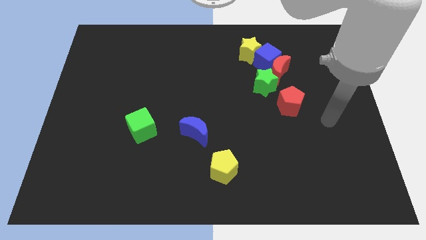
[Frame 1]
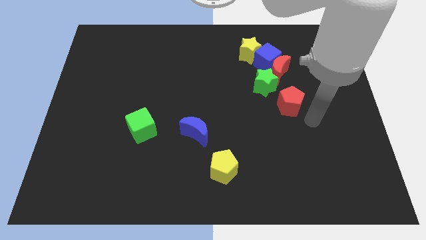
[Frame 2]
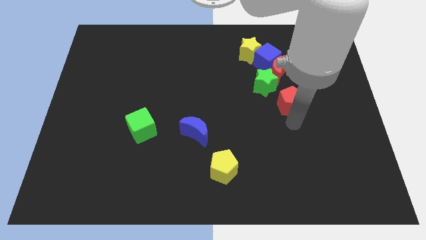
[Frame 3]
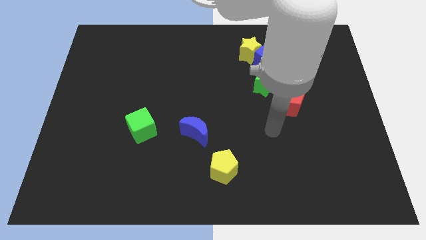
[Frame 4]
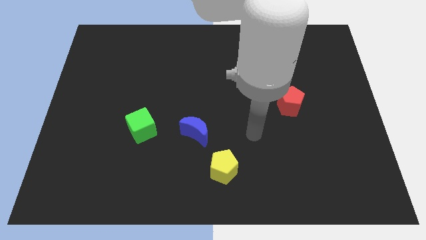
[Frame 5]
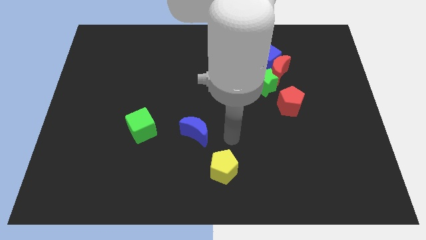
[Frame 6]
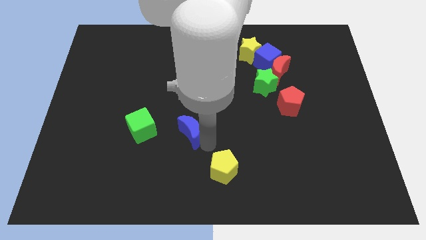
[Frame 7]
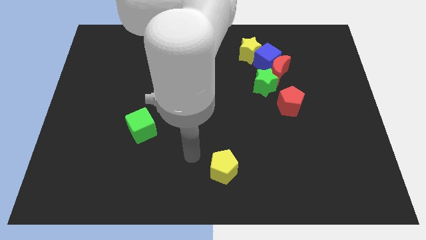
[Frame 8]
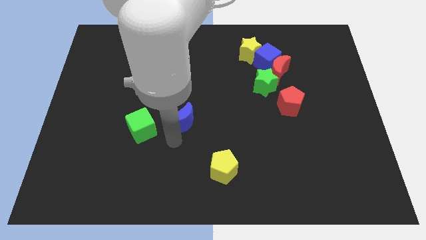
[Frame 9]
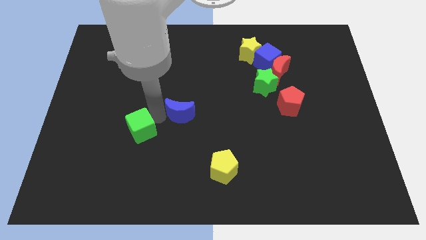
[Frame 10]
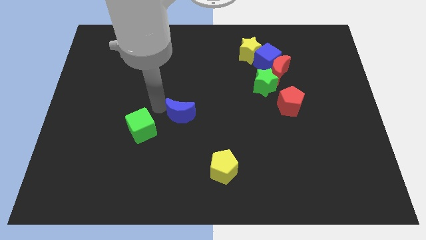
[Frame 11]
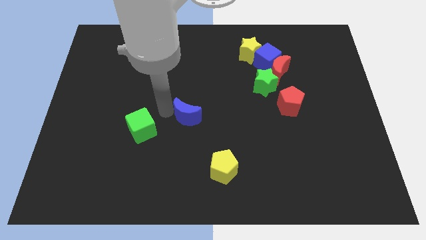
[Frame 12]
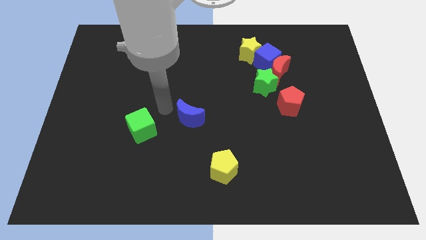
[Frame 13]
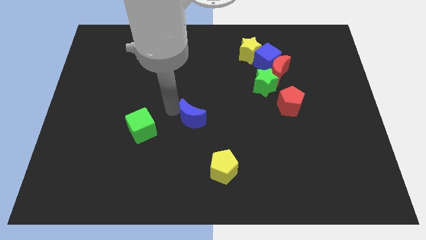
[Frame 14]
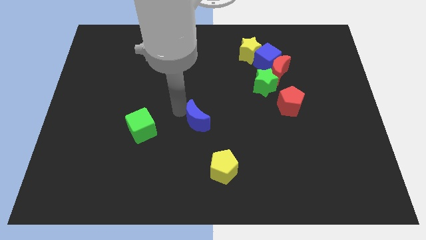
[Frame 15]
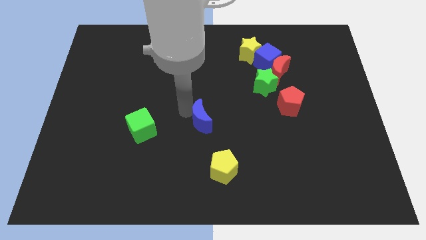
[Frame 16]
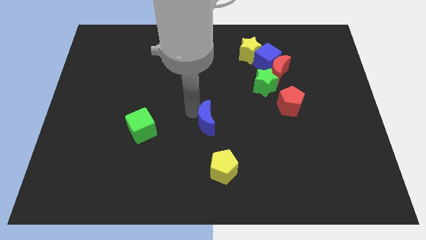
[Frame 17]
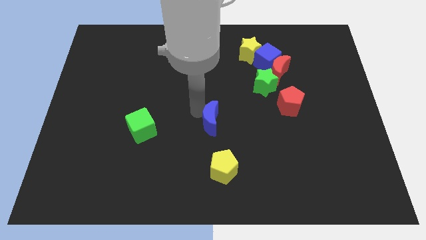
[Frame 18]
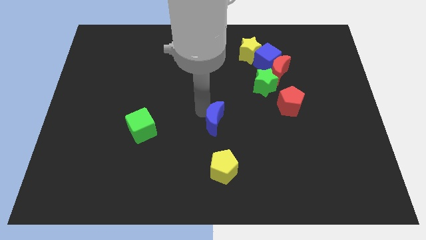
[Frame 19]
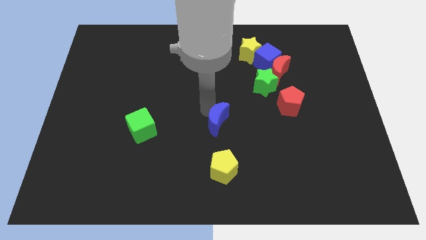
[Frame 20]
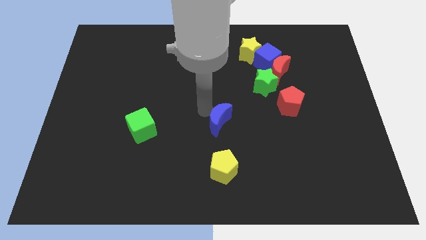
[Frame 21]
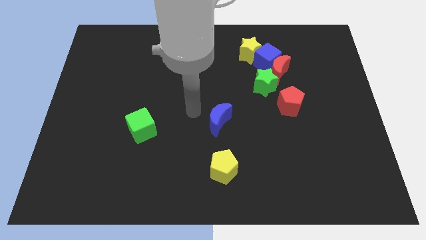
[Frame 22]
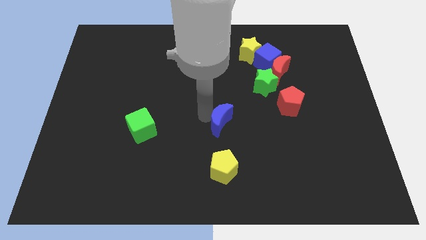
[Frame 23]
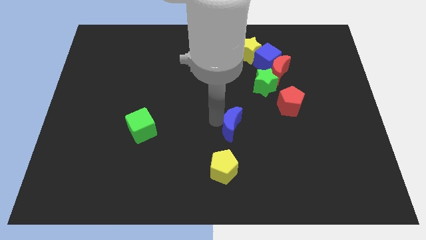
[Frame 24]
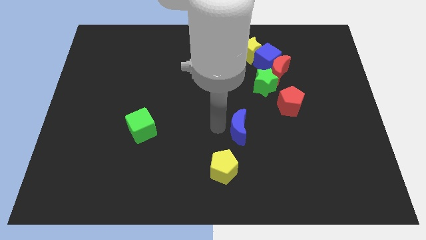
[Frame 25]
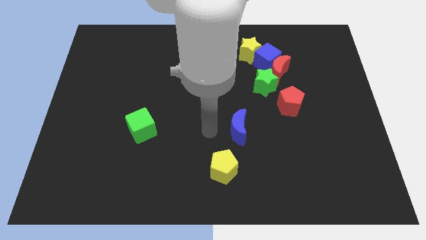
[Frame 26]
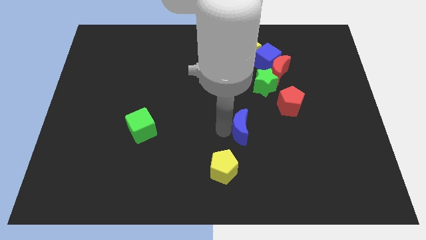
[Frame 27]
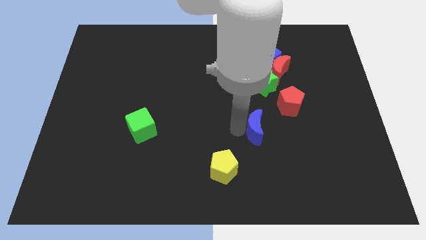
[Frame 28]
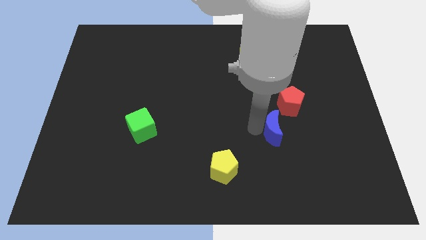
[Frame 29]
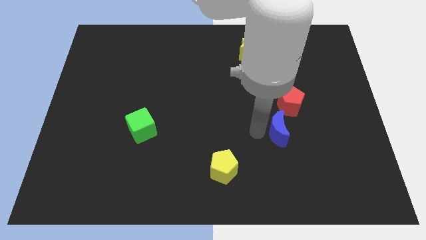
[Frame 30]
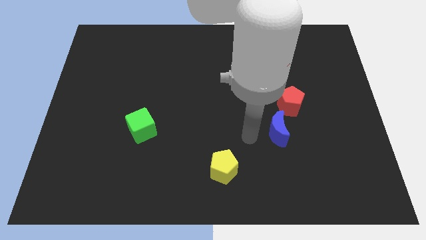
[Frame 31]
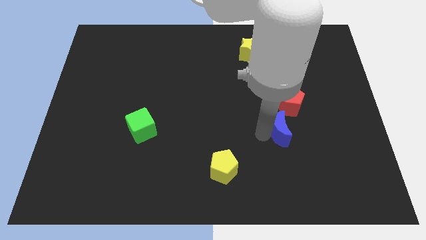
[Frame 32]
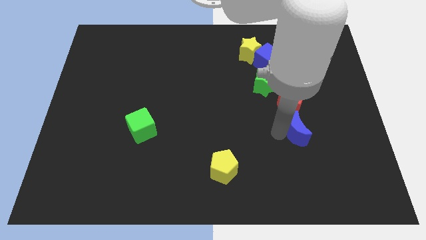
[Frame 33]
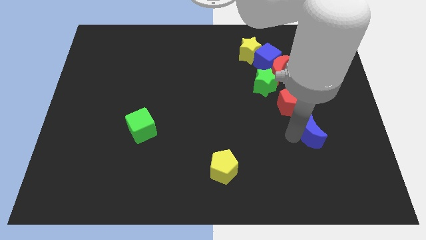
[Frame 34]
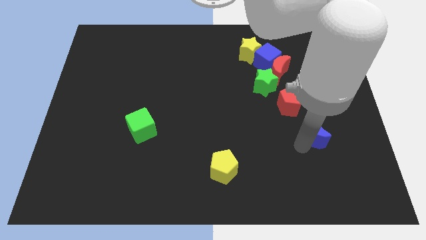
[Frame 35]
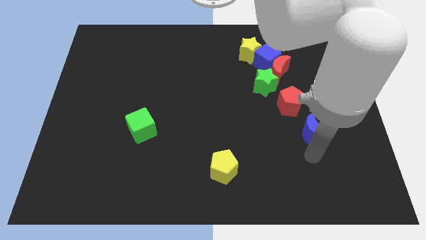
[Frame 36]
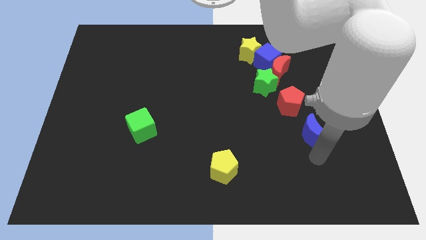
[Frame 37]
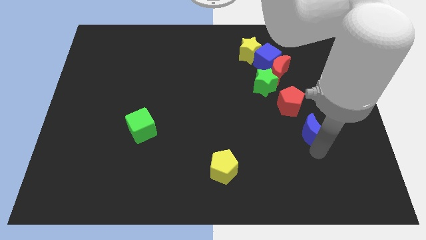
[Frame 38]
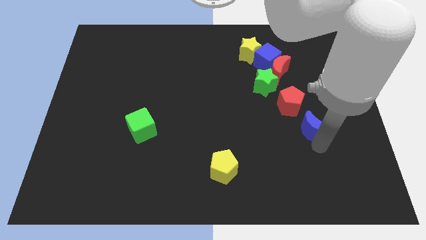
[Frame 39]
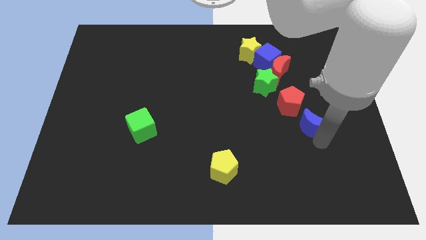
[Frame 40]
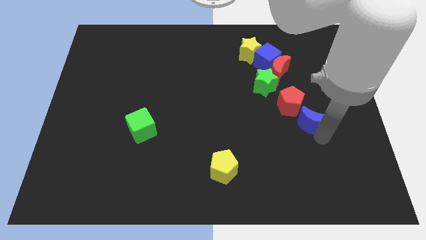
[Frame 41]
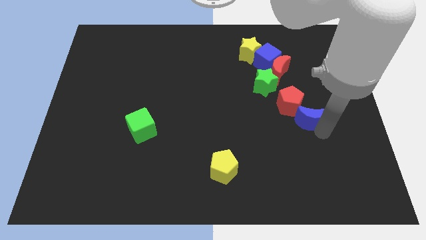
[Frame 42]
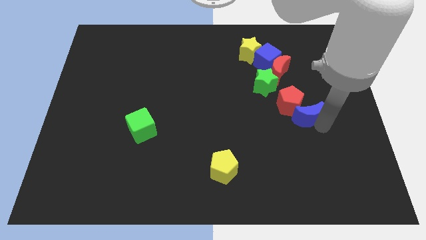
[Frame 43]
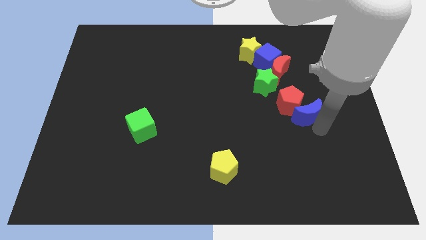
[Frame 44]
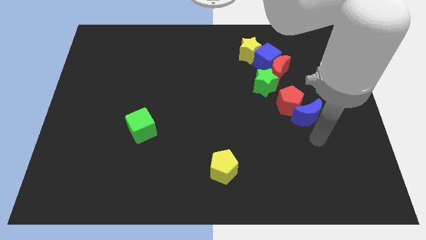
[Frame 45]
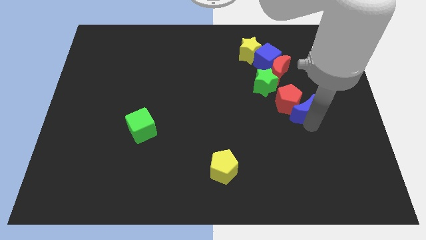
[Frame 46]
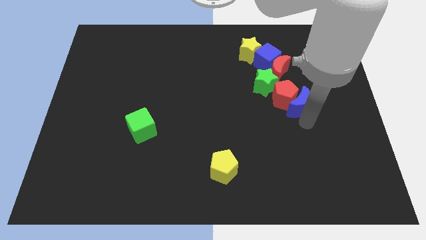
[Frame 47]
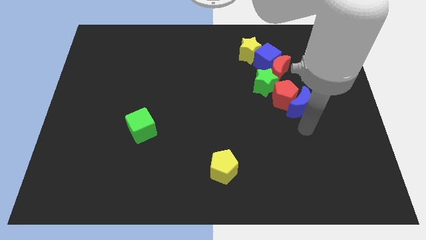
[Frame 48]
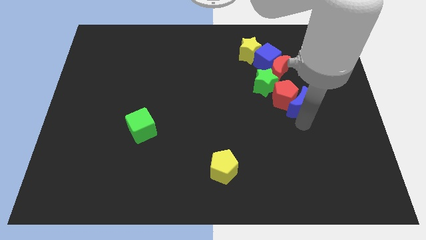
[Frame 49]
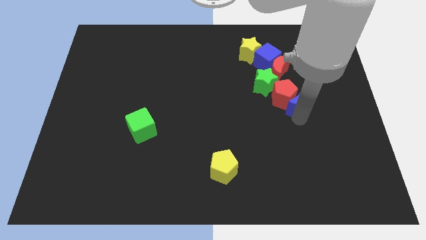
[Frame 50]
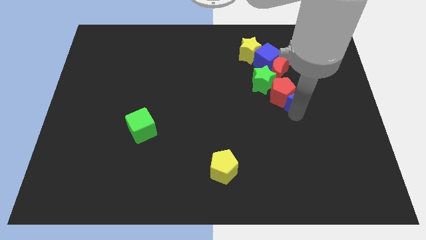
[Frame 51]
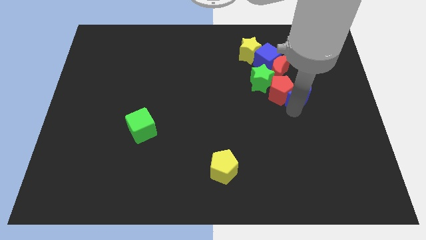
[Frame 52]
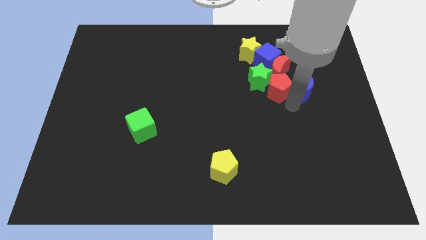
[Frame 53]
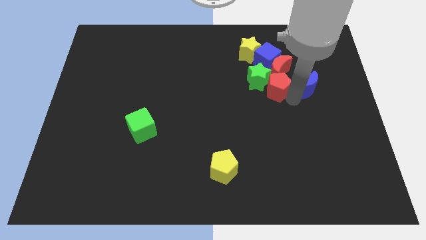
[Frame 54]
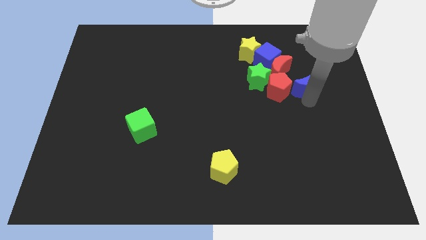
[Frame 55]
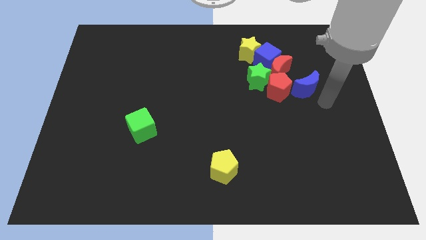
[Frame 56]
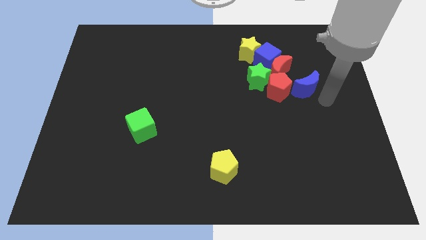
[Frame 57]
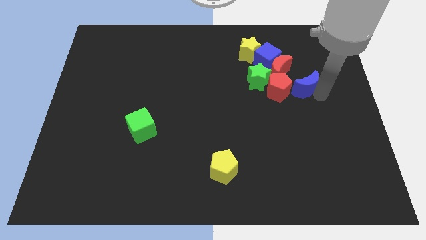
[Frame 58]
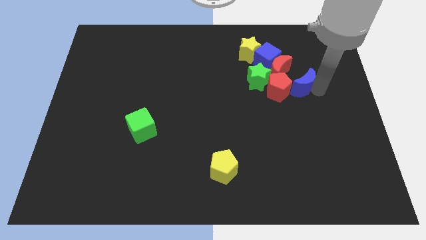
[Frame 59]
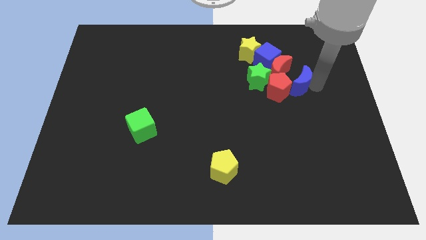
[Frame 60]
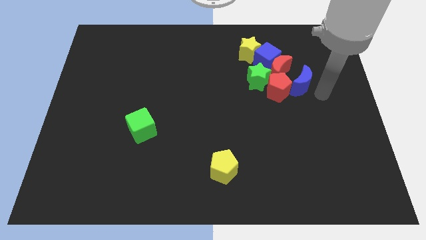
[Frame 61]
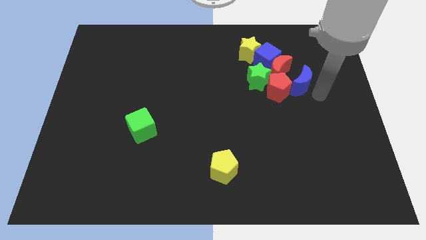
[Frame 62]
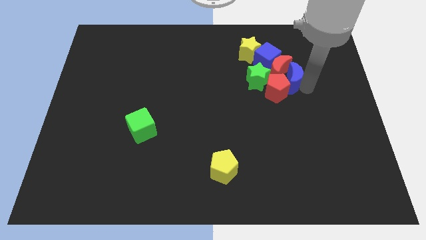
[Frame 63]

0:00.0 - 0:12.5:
move the blue moon close to the red moon
